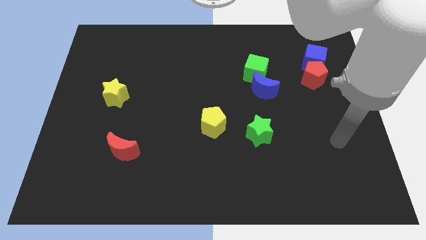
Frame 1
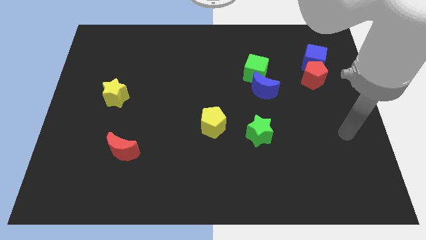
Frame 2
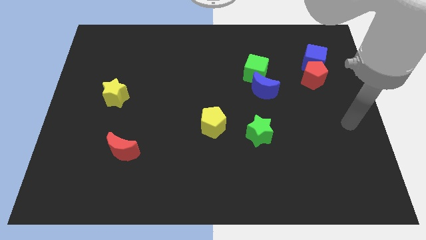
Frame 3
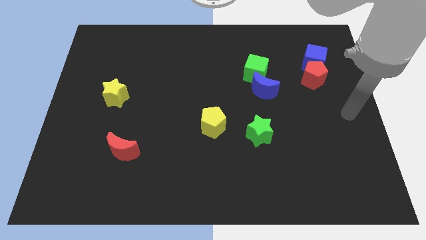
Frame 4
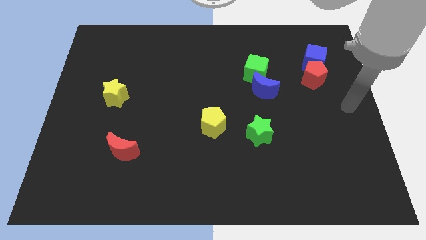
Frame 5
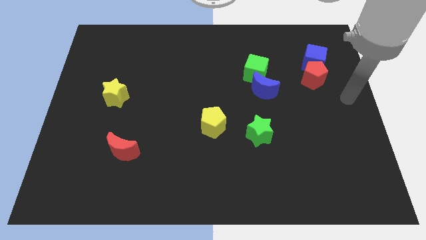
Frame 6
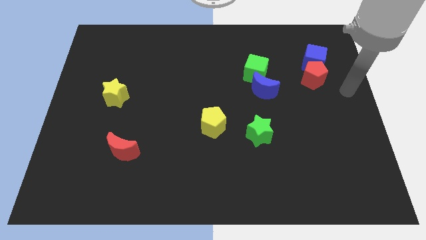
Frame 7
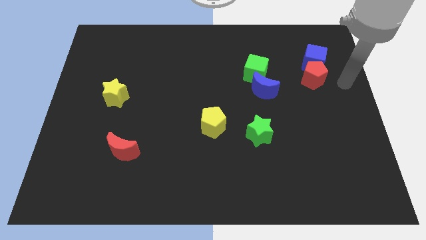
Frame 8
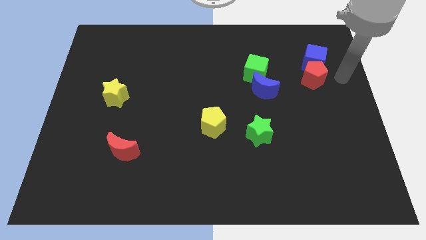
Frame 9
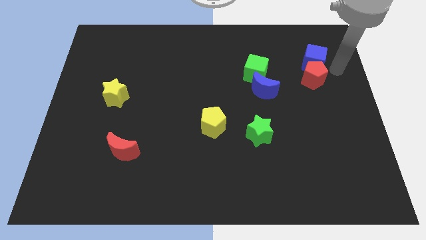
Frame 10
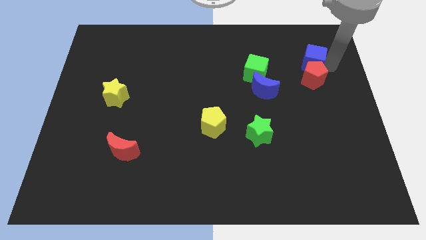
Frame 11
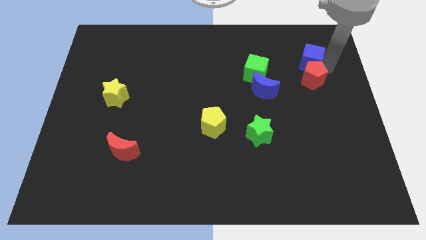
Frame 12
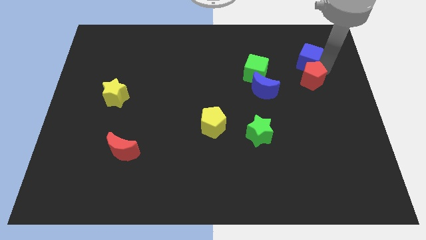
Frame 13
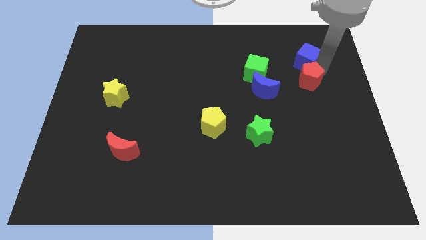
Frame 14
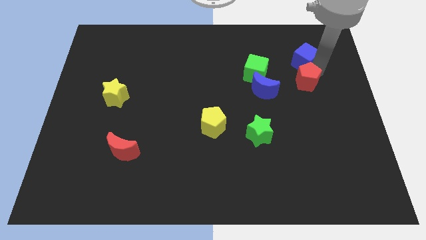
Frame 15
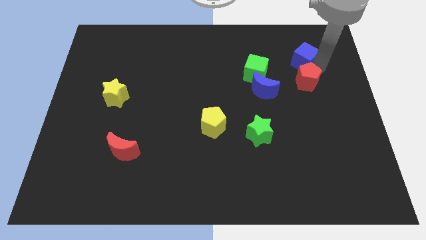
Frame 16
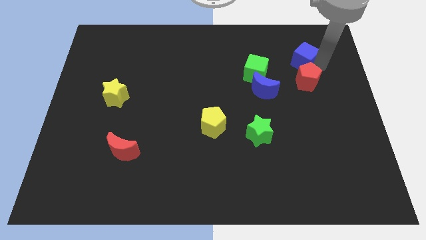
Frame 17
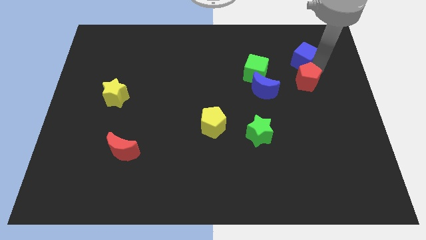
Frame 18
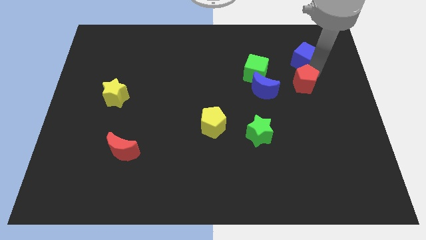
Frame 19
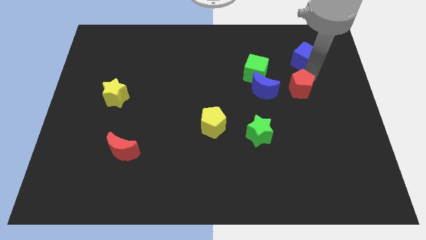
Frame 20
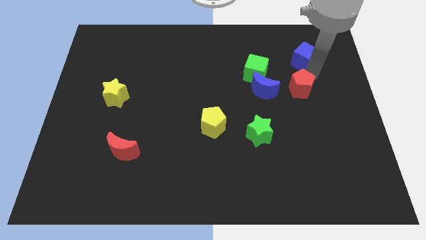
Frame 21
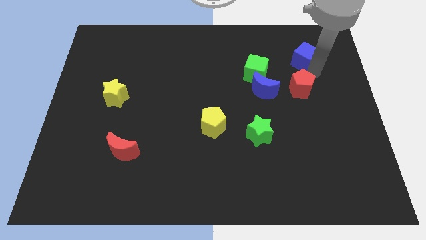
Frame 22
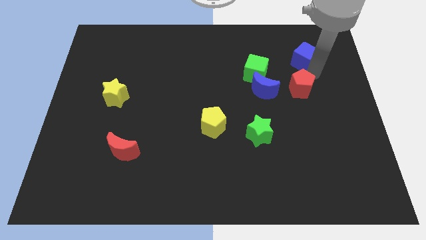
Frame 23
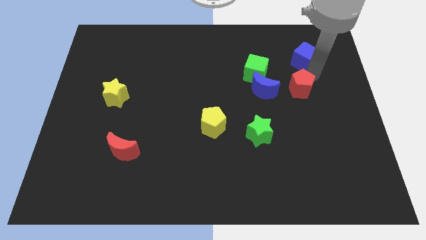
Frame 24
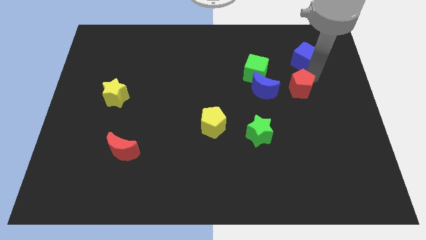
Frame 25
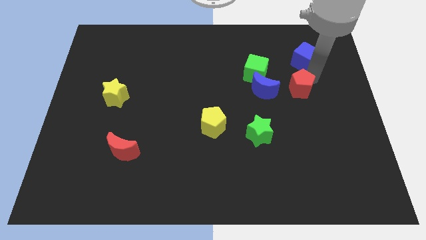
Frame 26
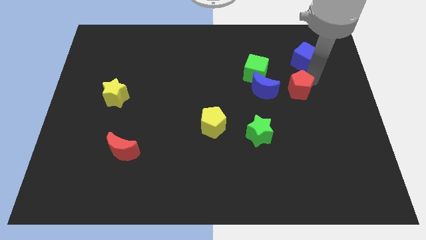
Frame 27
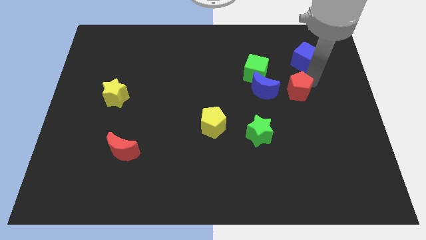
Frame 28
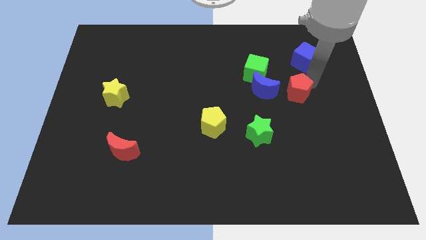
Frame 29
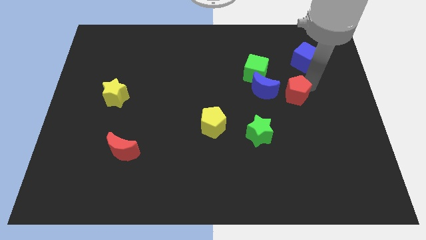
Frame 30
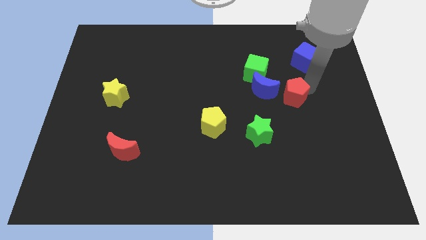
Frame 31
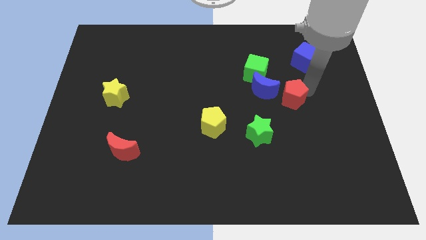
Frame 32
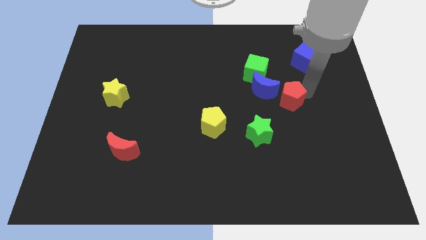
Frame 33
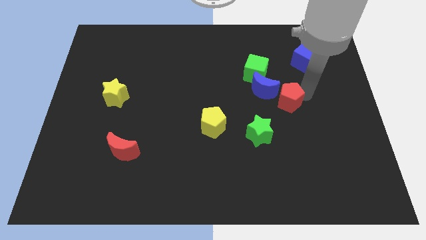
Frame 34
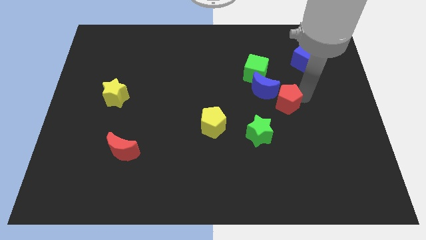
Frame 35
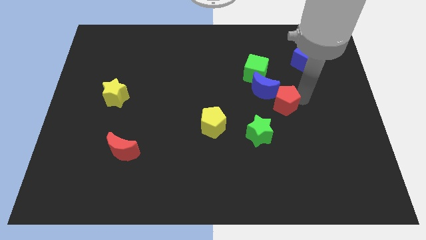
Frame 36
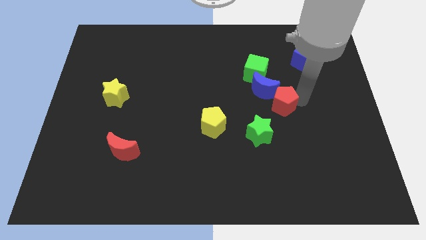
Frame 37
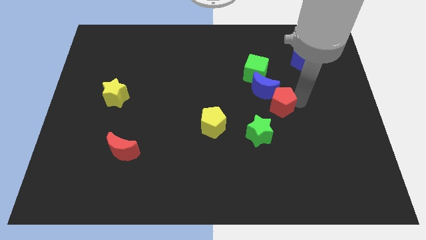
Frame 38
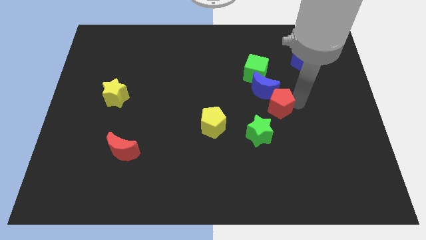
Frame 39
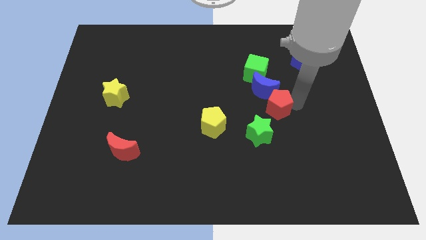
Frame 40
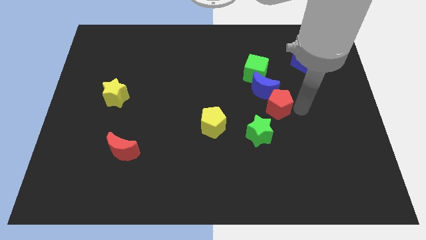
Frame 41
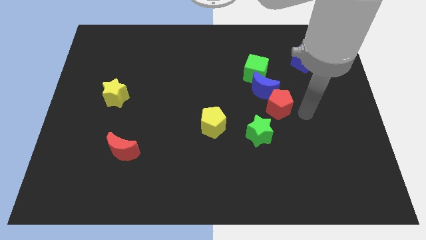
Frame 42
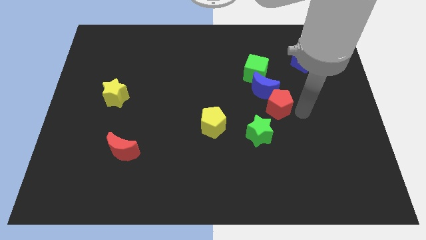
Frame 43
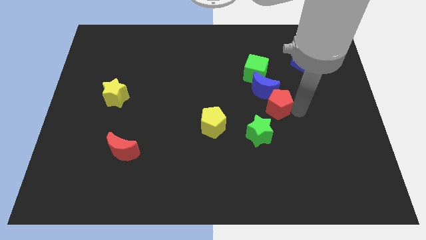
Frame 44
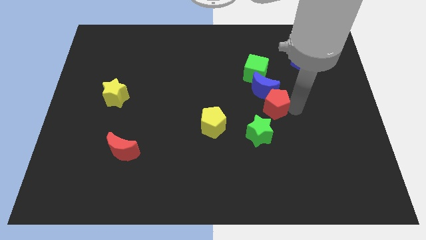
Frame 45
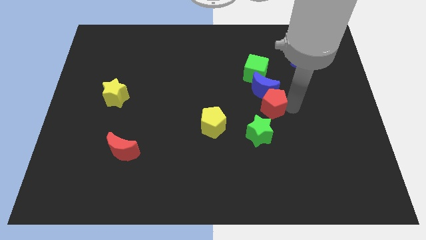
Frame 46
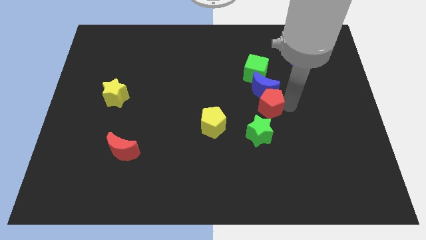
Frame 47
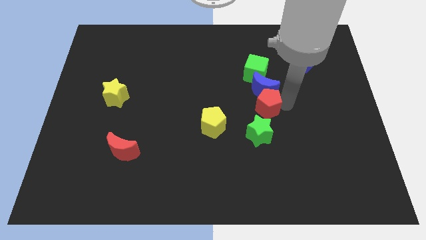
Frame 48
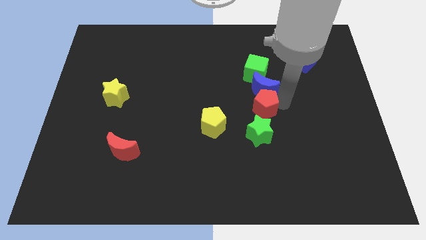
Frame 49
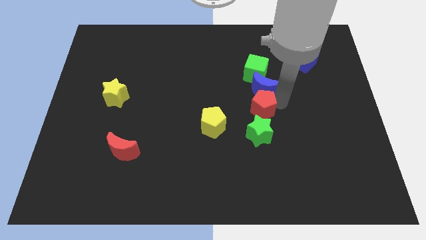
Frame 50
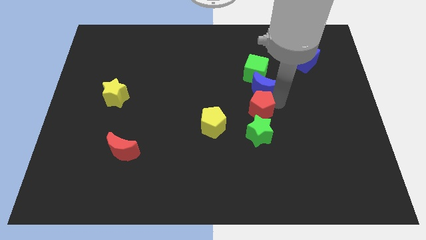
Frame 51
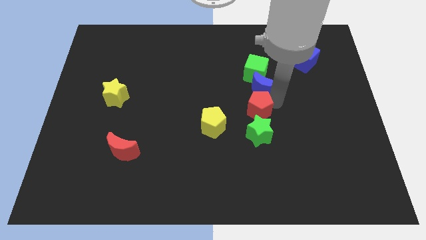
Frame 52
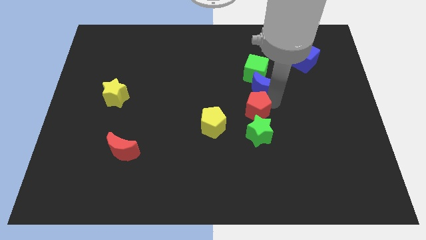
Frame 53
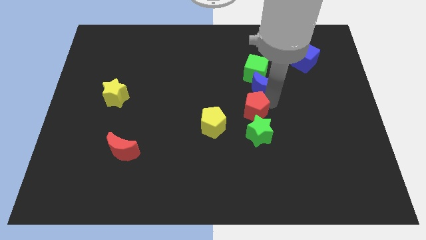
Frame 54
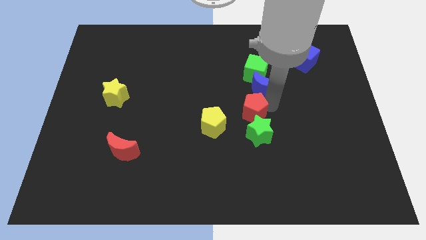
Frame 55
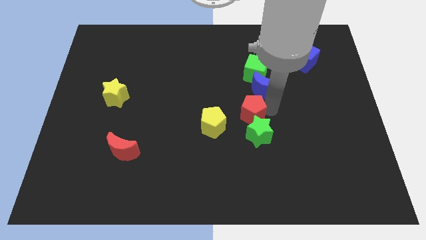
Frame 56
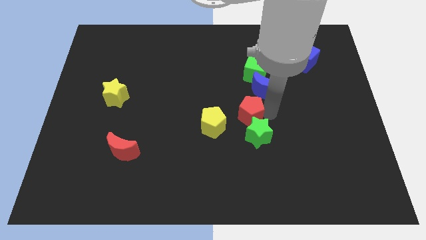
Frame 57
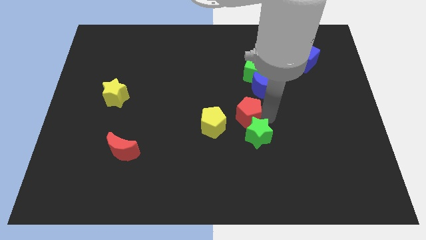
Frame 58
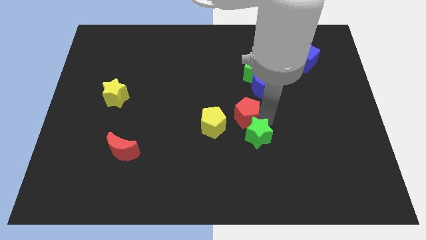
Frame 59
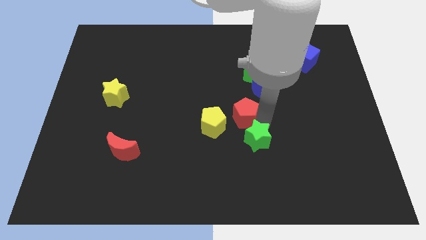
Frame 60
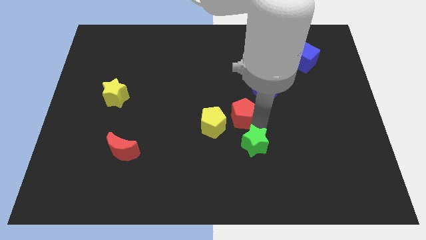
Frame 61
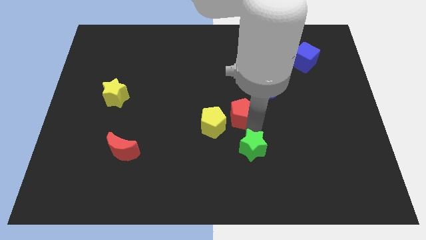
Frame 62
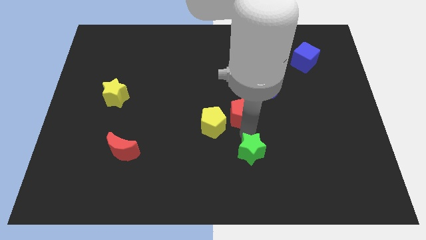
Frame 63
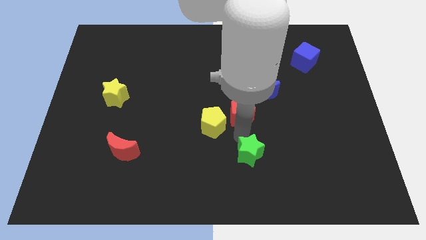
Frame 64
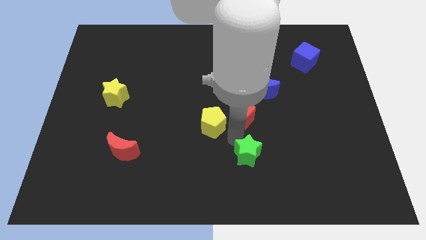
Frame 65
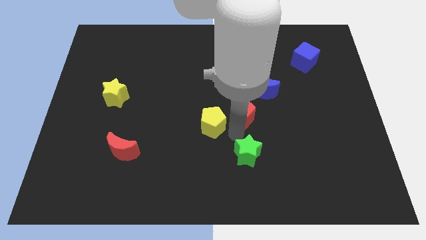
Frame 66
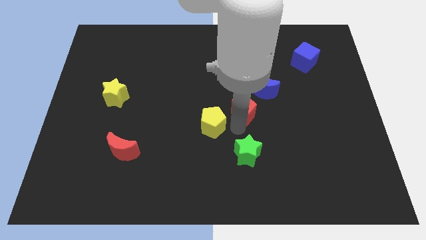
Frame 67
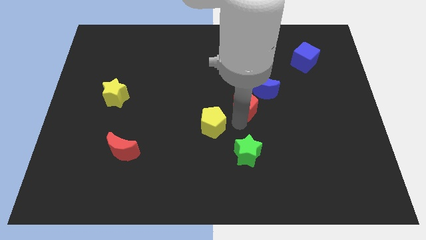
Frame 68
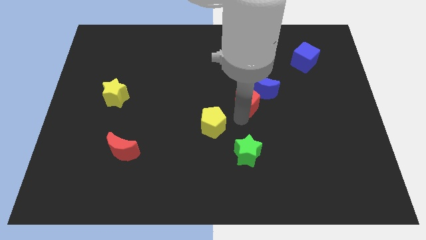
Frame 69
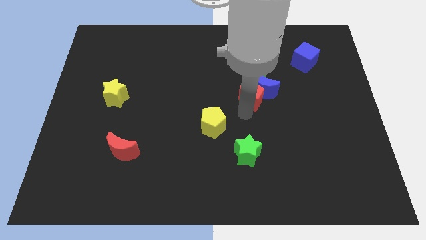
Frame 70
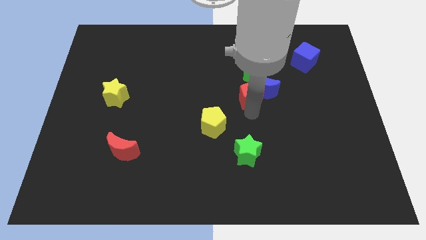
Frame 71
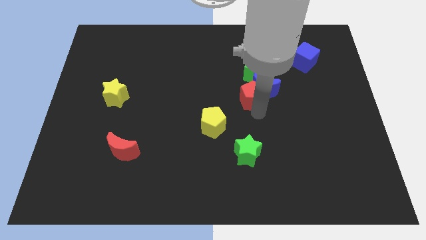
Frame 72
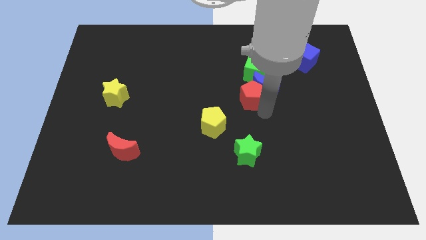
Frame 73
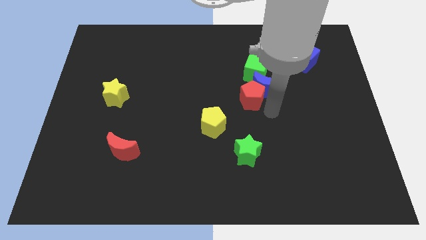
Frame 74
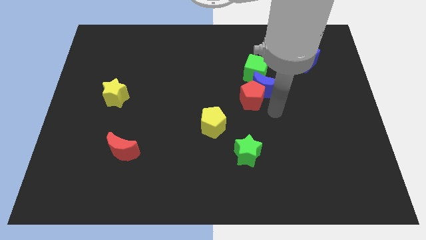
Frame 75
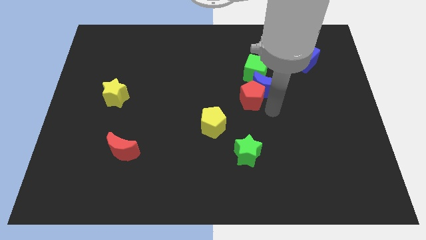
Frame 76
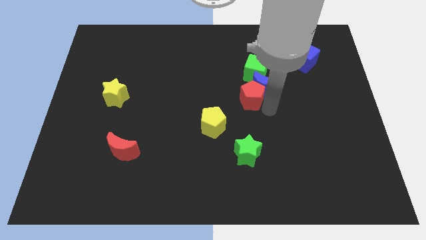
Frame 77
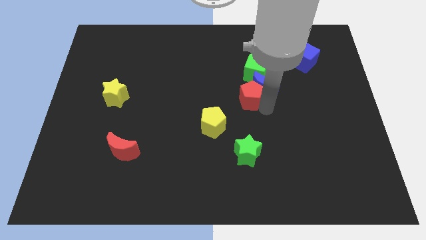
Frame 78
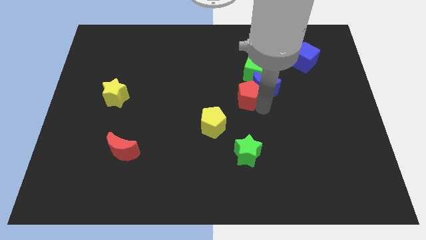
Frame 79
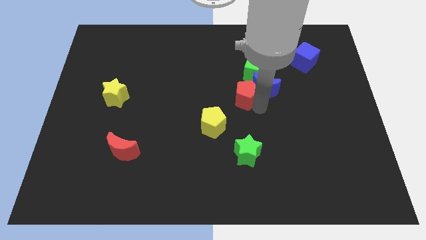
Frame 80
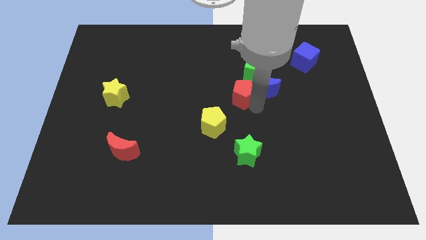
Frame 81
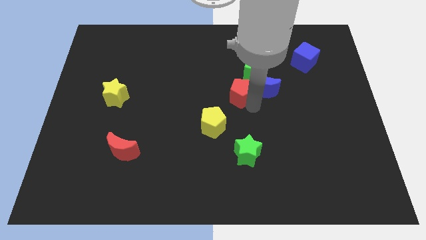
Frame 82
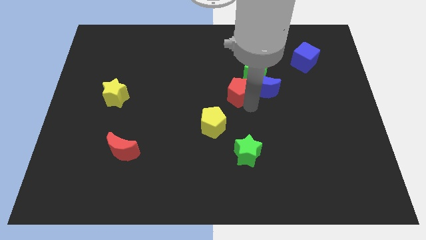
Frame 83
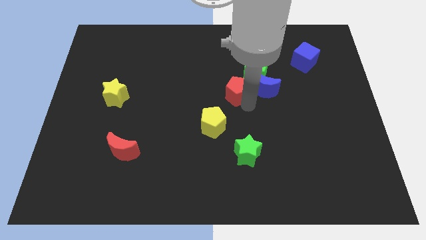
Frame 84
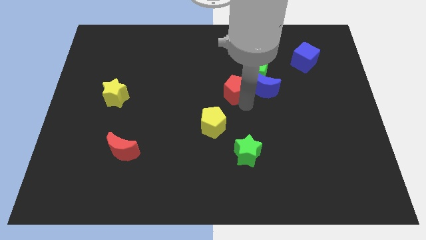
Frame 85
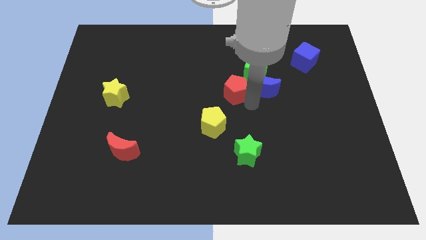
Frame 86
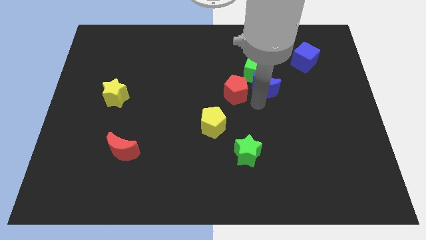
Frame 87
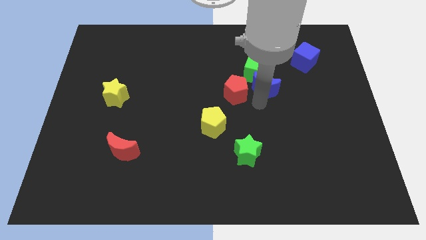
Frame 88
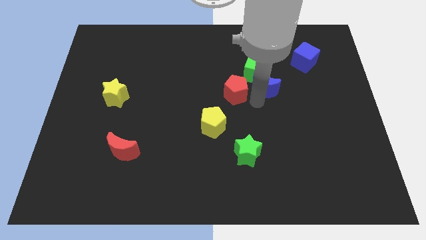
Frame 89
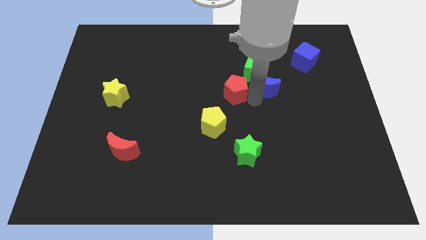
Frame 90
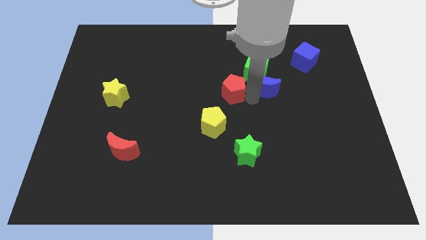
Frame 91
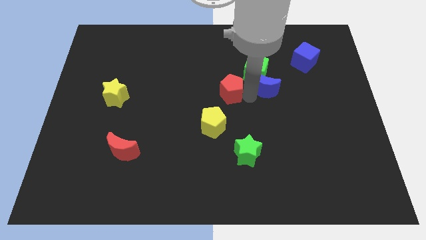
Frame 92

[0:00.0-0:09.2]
slide the red pentagon left
